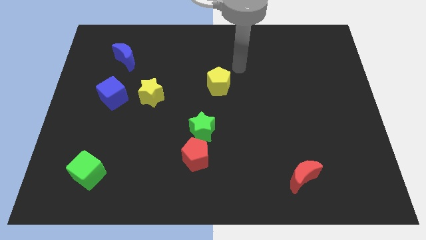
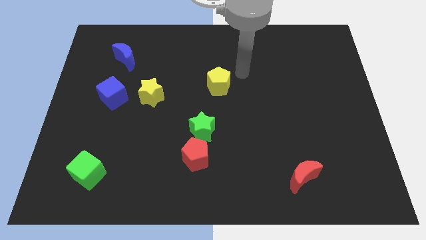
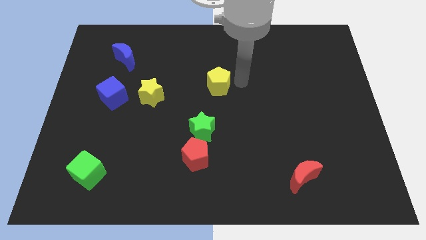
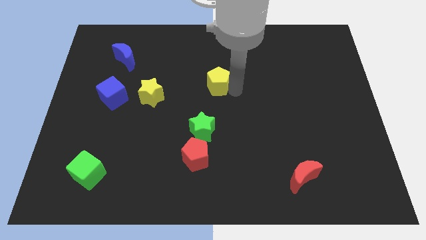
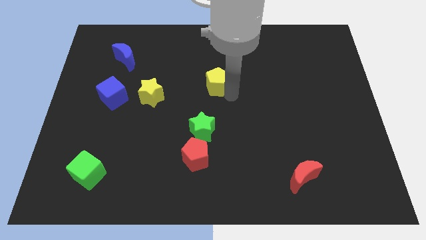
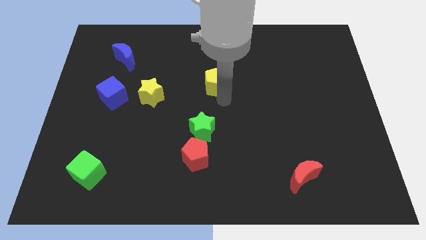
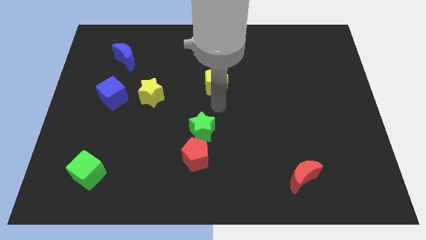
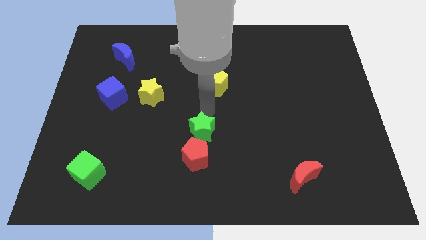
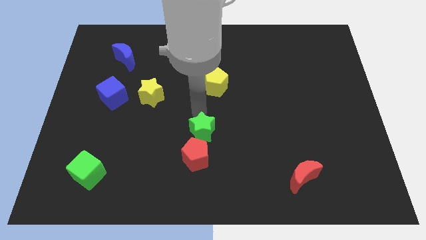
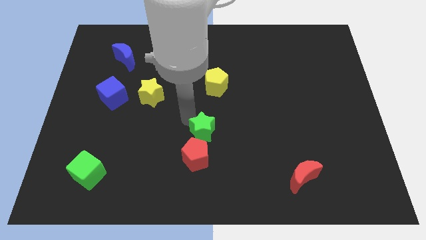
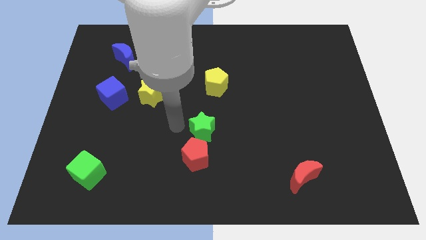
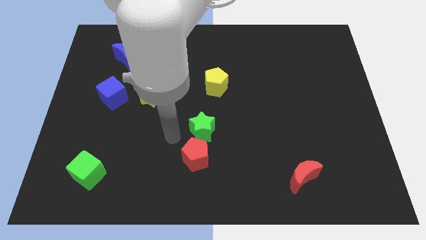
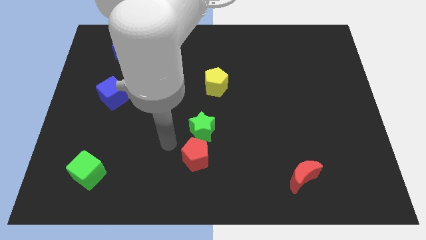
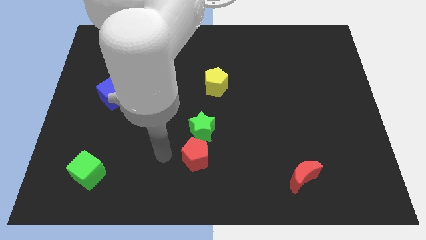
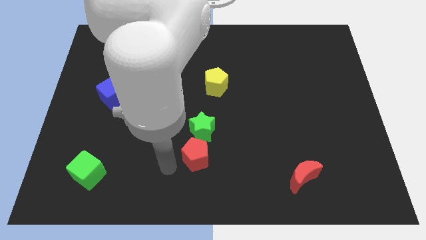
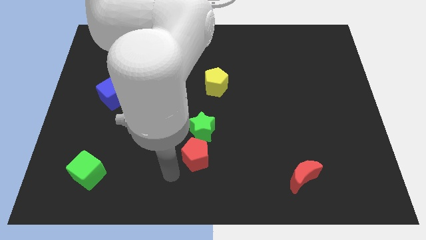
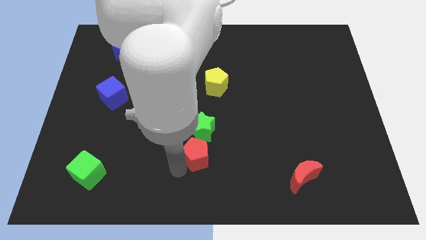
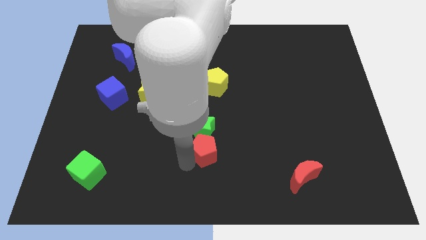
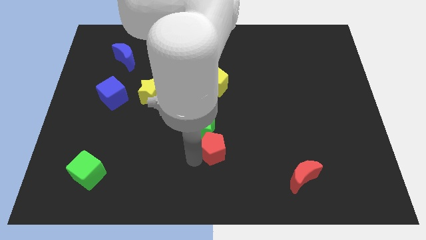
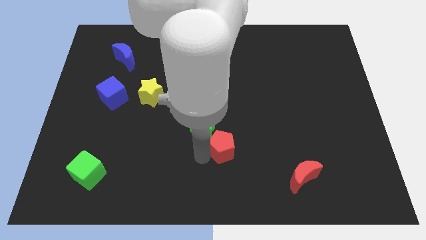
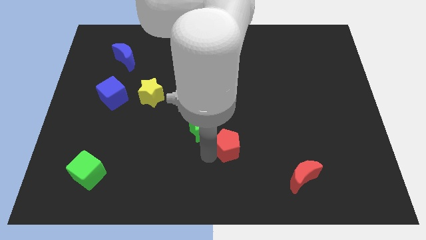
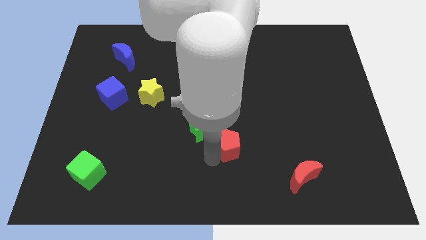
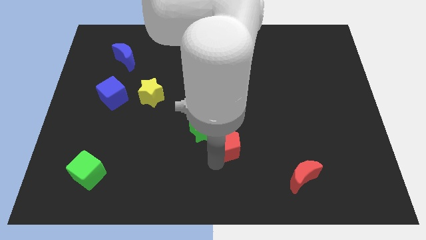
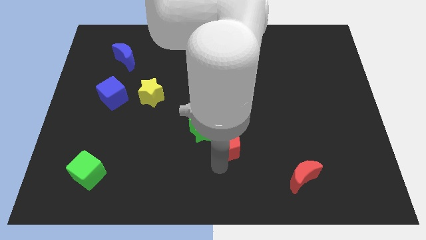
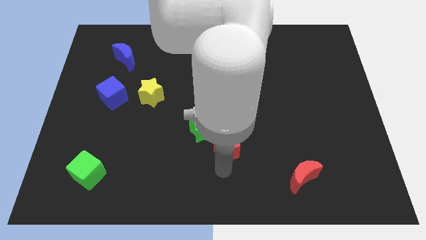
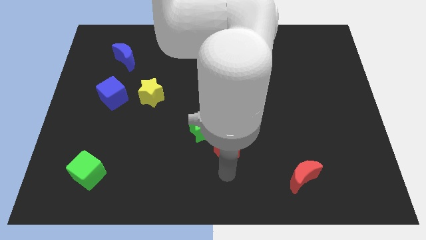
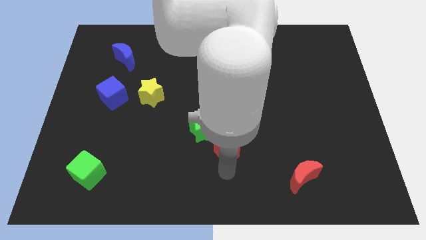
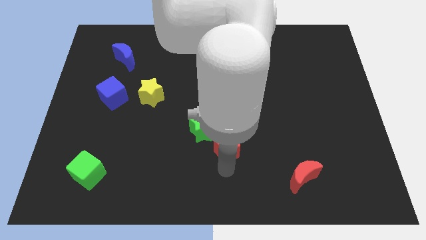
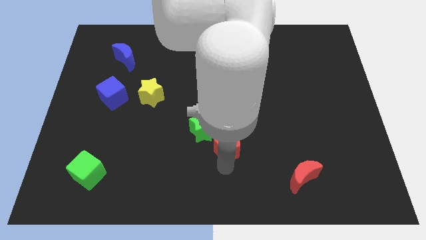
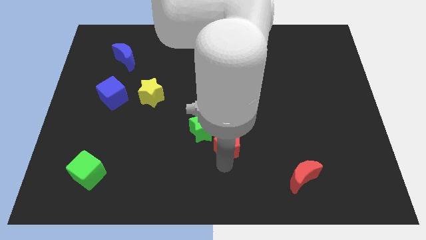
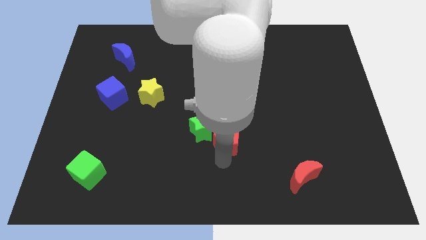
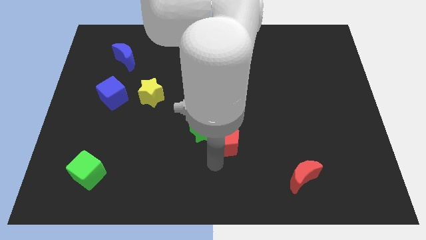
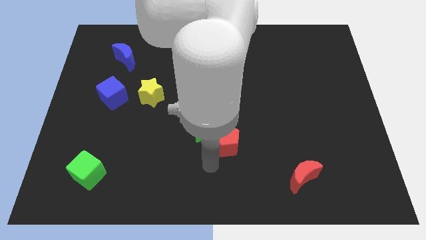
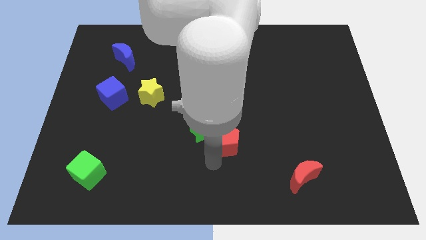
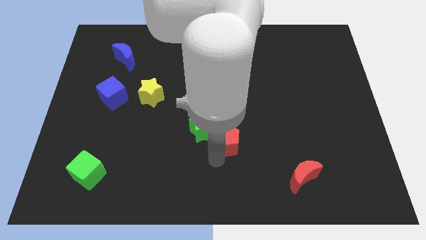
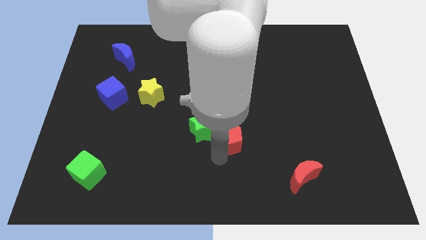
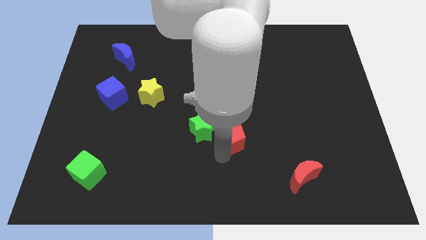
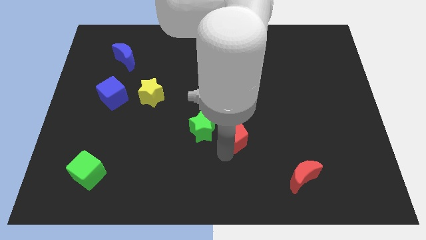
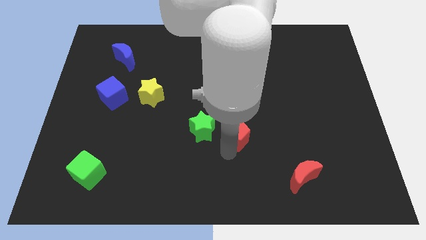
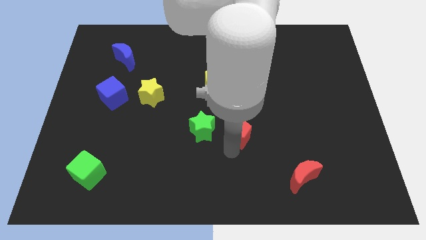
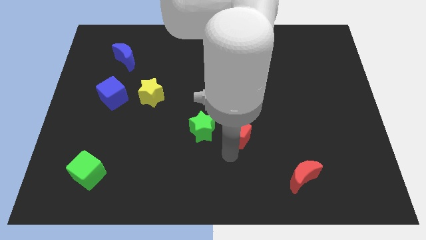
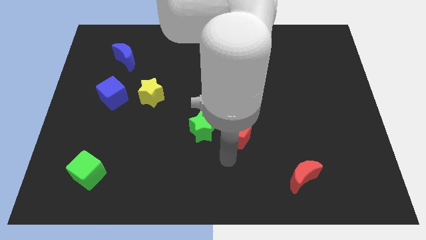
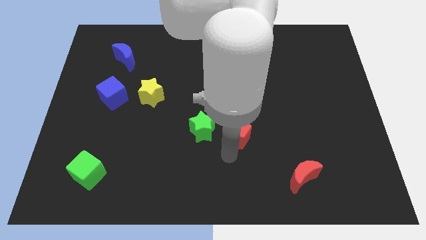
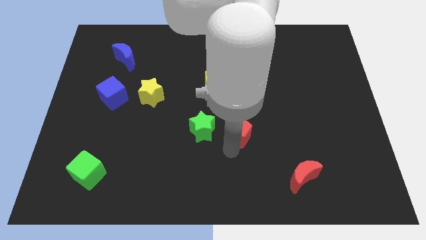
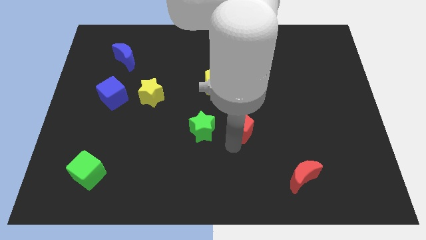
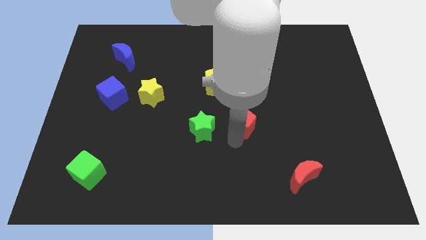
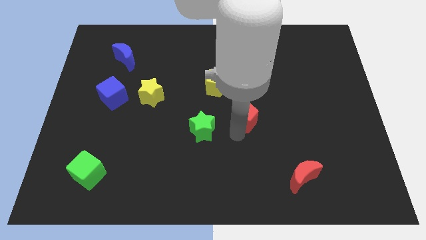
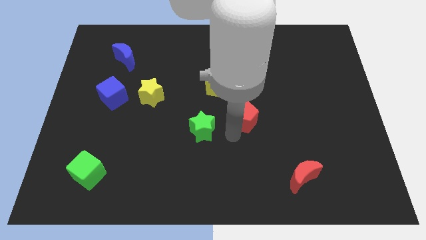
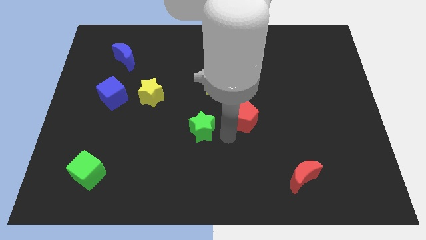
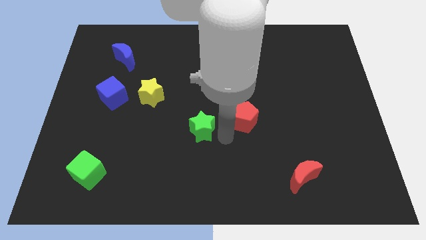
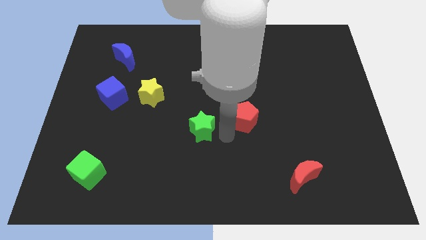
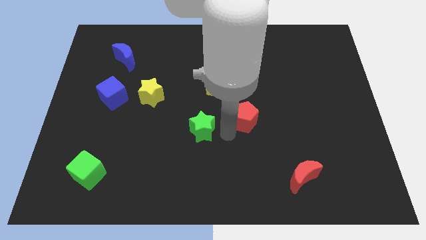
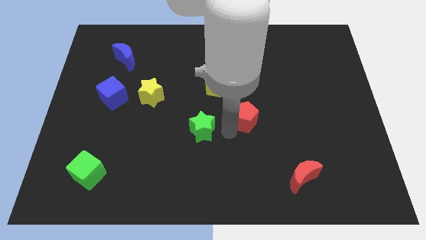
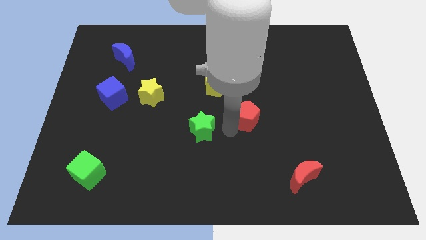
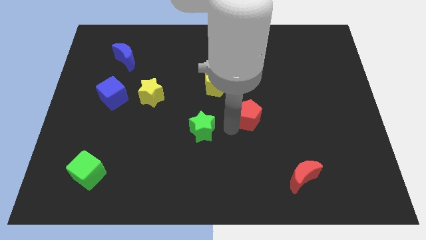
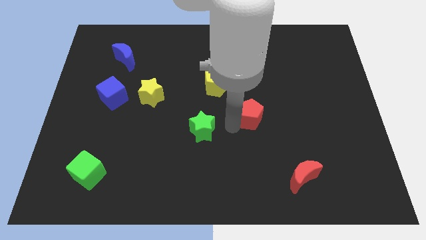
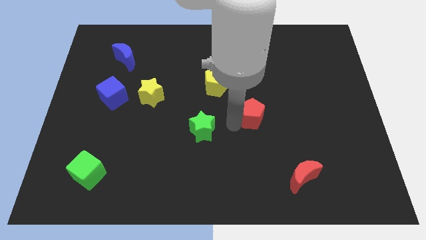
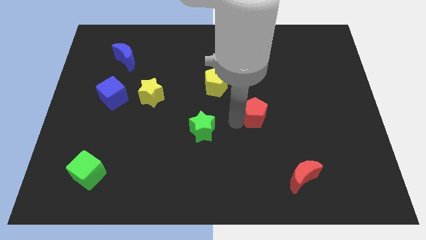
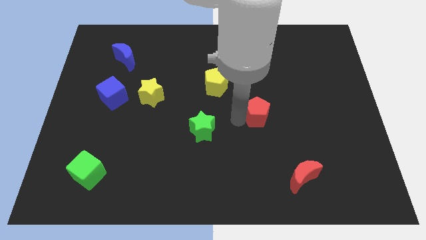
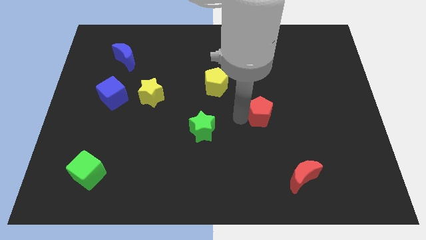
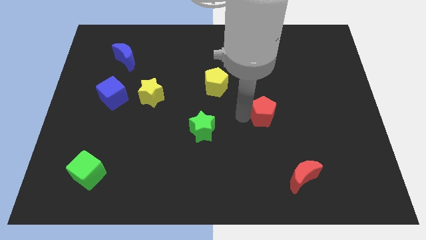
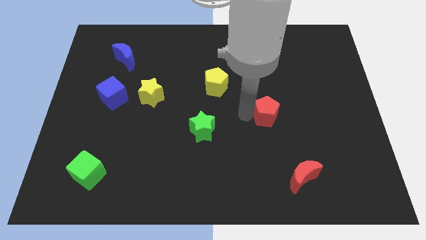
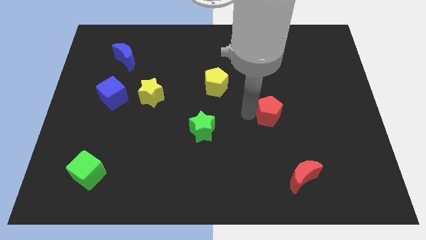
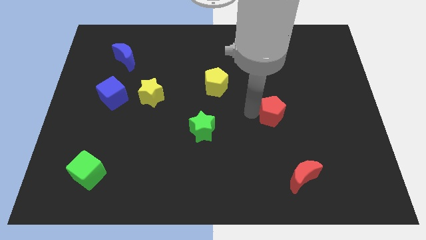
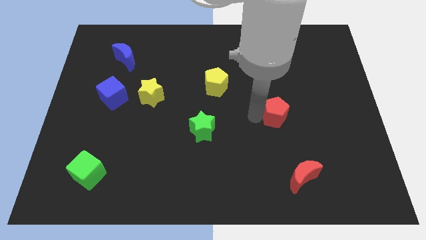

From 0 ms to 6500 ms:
move the red pentagon diagonally upwards and to the right

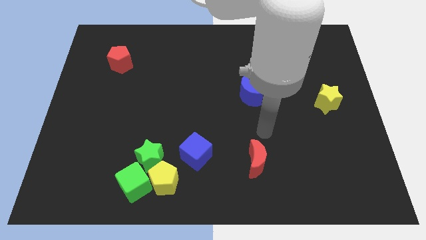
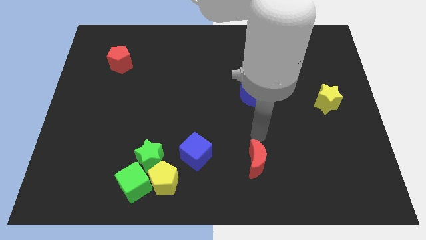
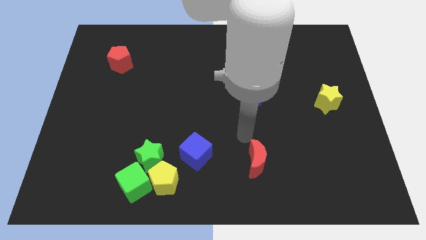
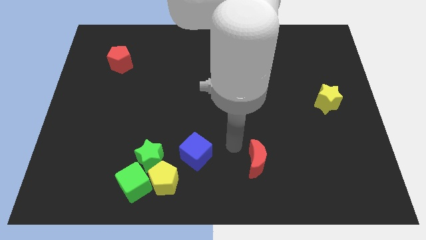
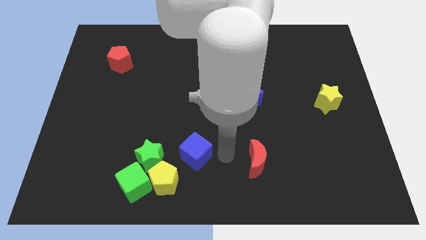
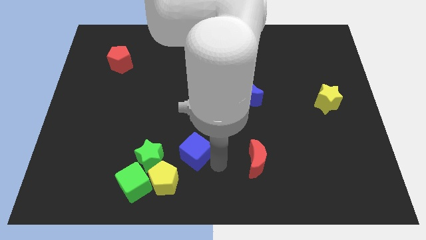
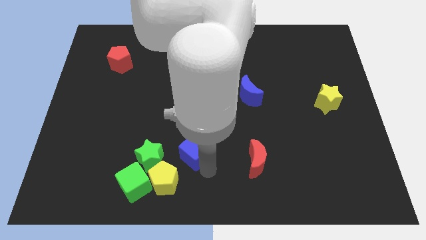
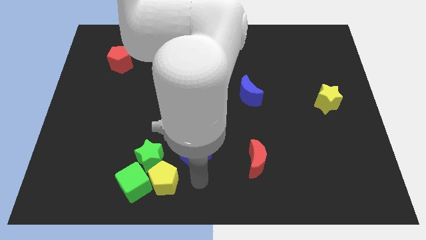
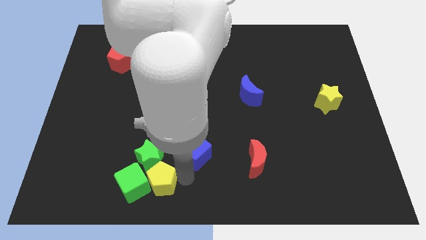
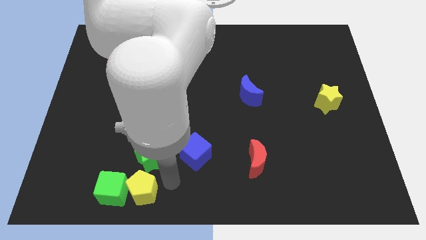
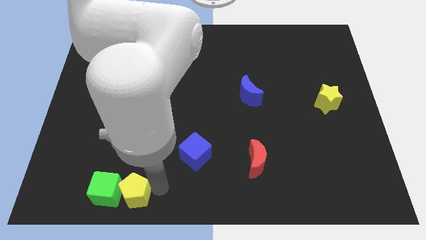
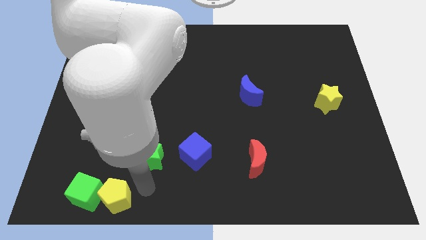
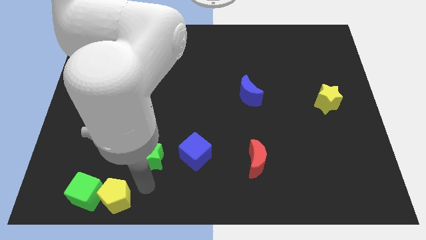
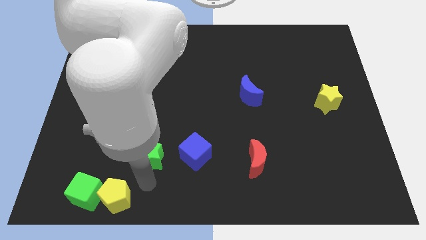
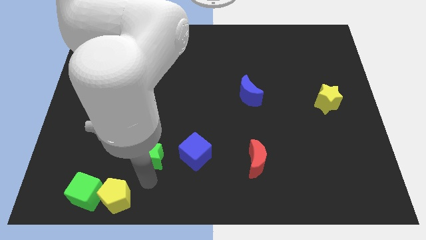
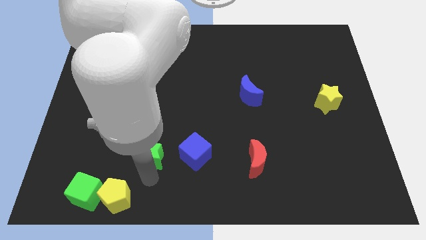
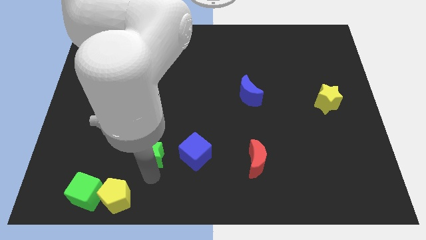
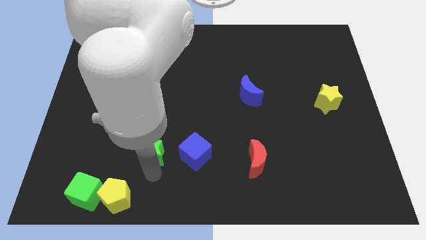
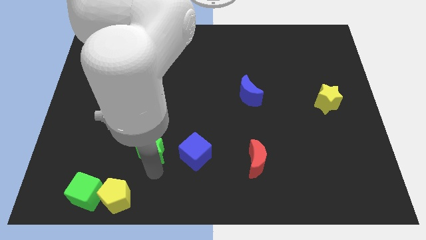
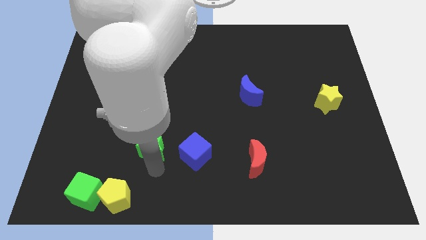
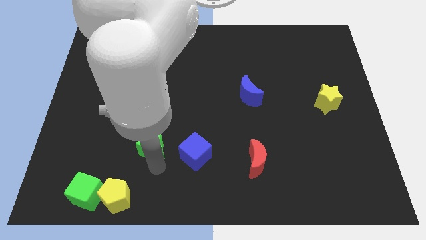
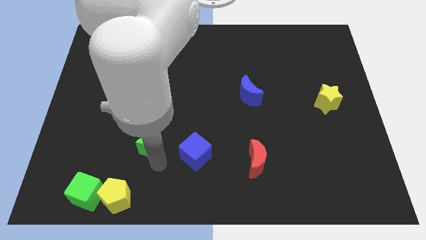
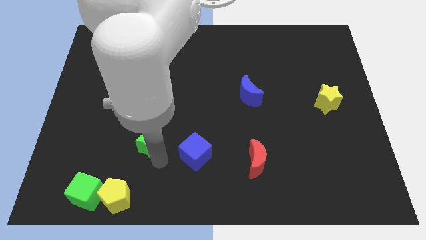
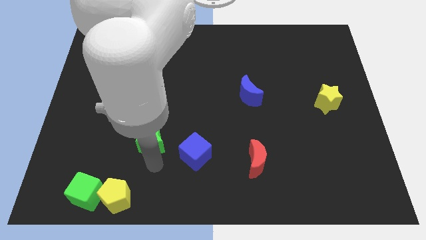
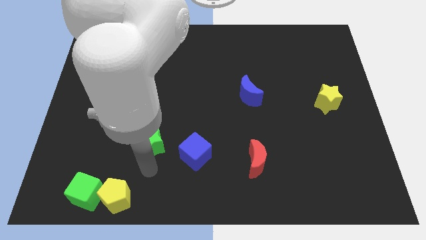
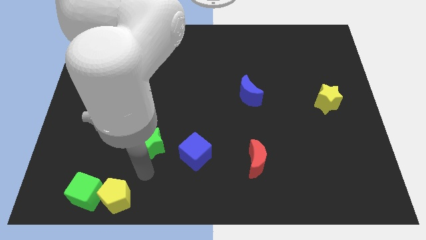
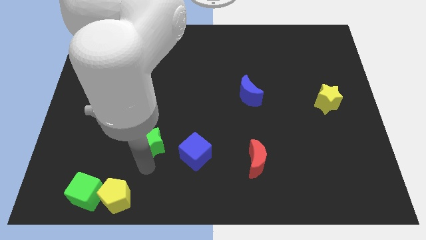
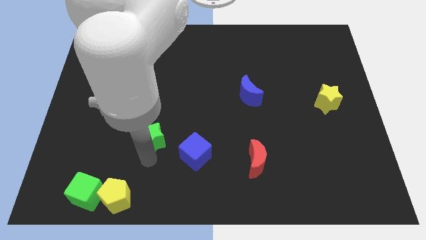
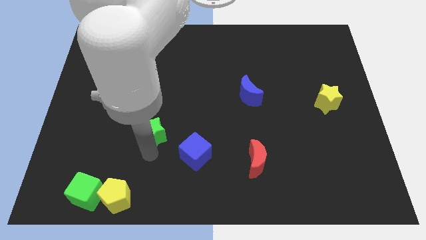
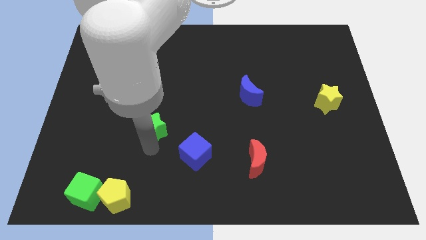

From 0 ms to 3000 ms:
move the green star upwards a bit
